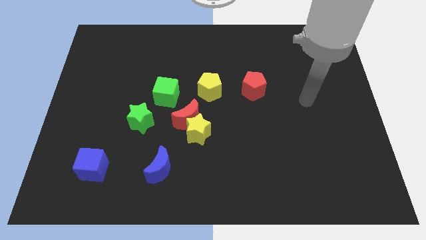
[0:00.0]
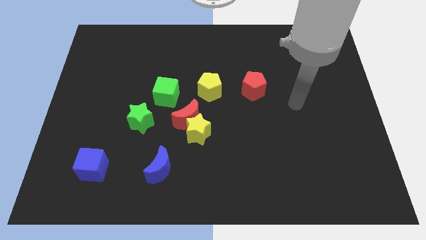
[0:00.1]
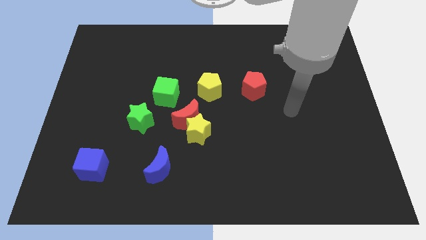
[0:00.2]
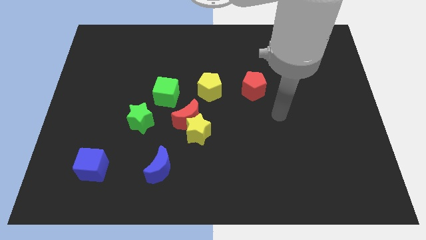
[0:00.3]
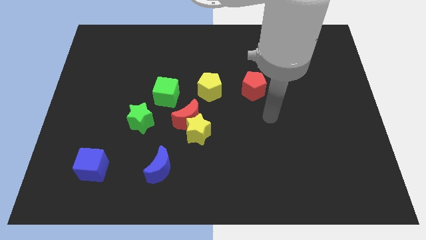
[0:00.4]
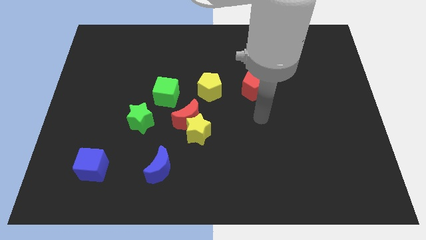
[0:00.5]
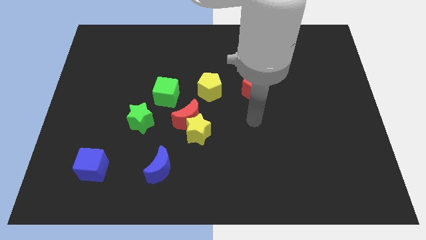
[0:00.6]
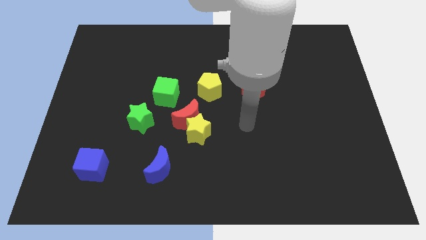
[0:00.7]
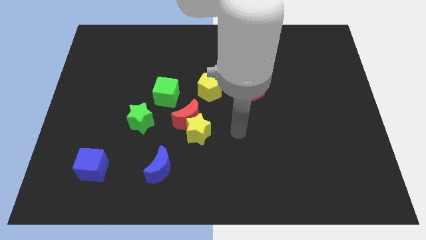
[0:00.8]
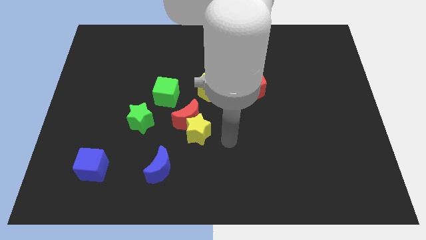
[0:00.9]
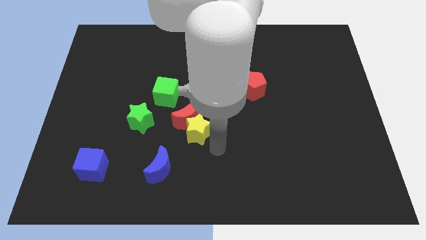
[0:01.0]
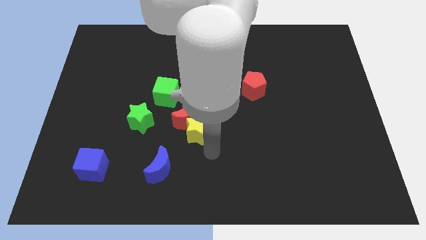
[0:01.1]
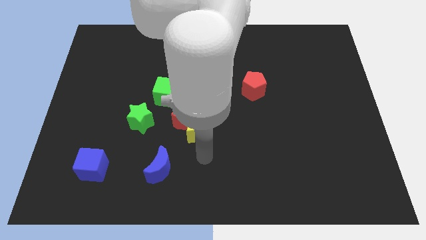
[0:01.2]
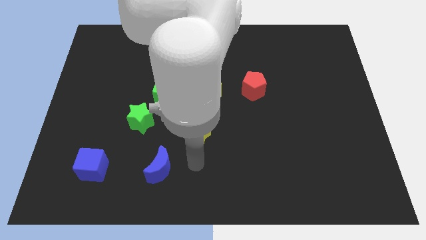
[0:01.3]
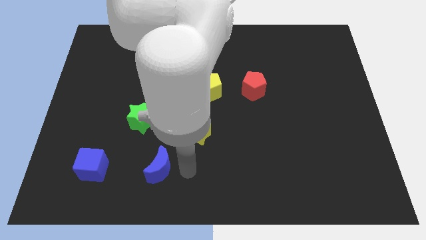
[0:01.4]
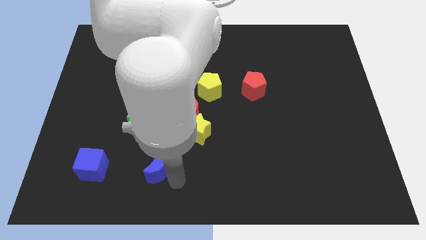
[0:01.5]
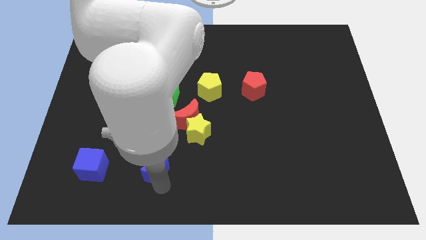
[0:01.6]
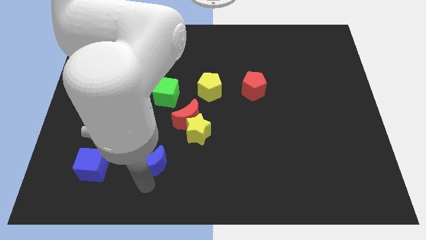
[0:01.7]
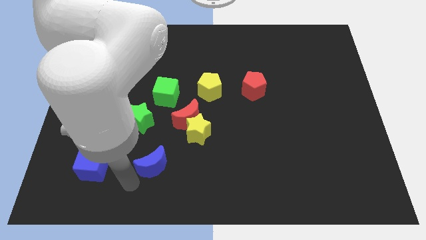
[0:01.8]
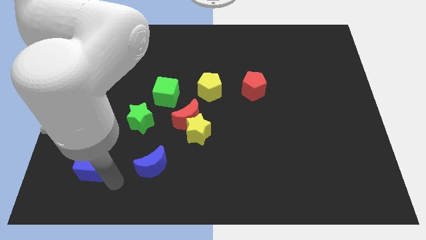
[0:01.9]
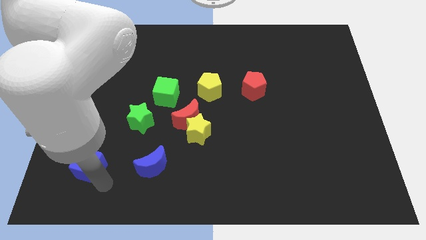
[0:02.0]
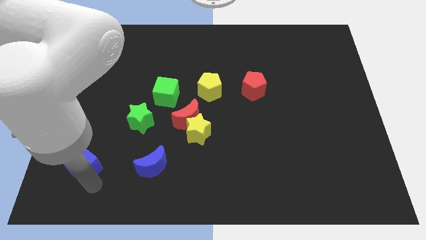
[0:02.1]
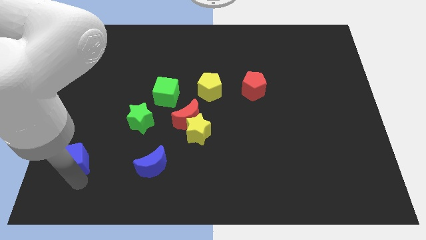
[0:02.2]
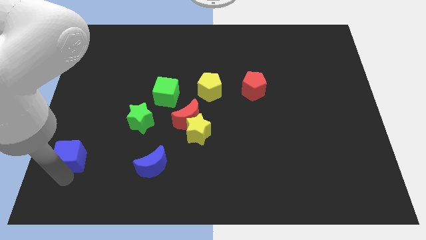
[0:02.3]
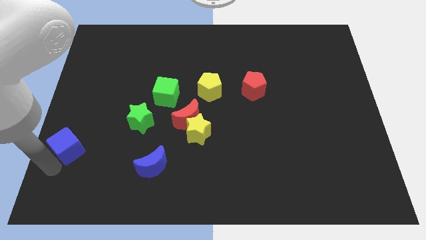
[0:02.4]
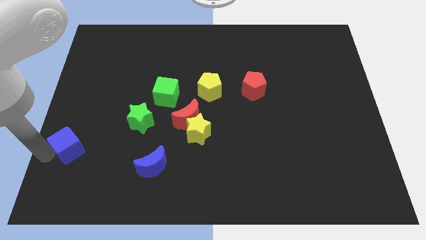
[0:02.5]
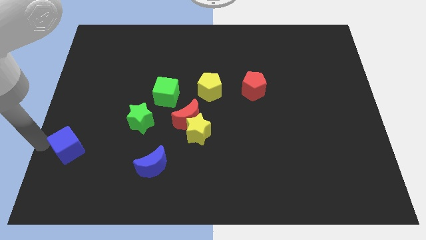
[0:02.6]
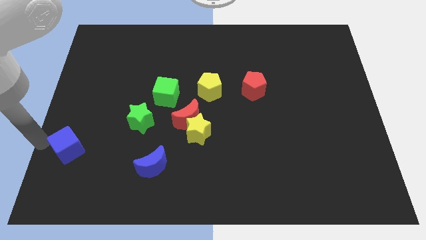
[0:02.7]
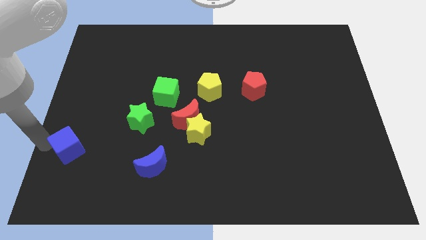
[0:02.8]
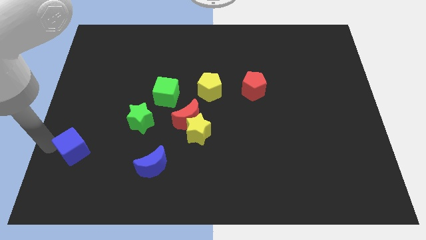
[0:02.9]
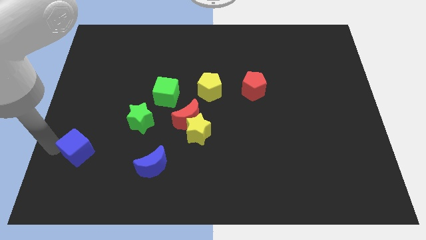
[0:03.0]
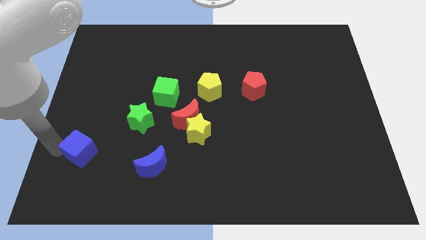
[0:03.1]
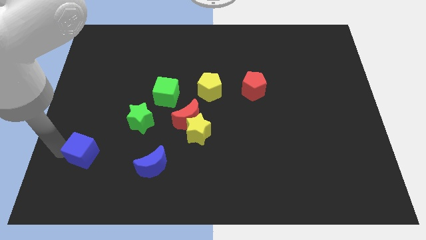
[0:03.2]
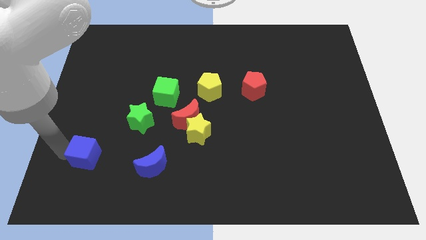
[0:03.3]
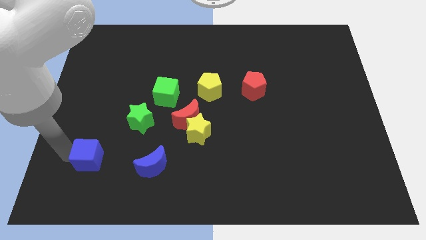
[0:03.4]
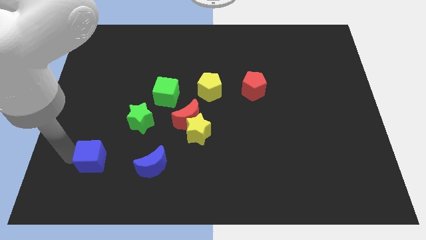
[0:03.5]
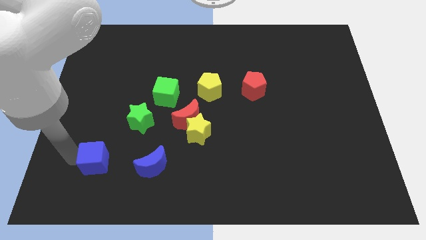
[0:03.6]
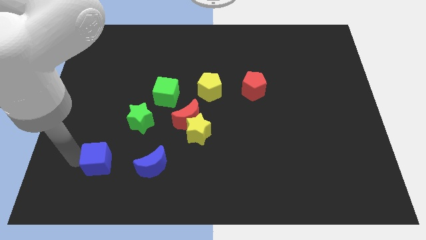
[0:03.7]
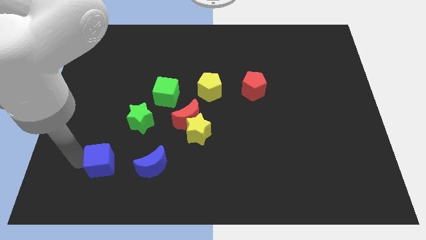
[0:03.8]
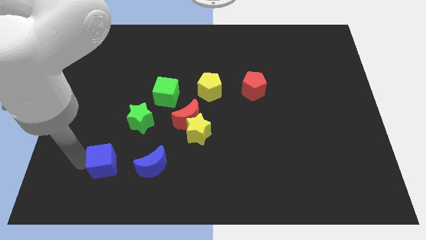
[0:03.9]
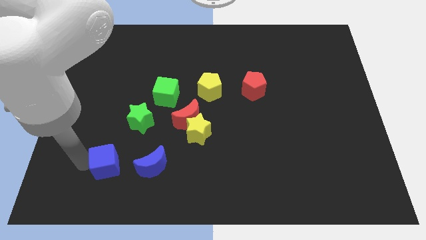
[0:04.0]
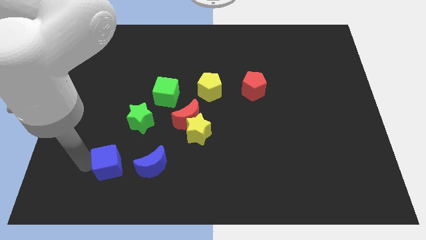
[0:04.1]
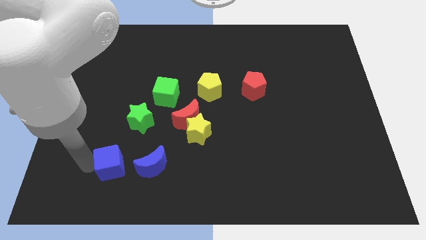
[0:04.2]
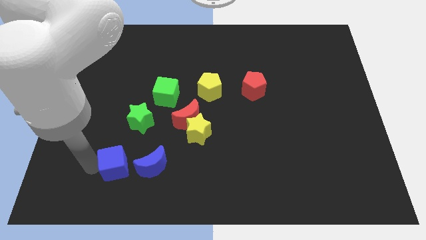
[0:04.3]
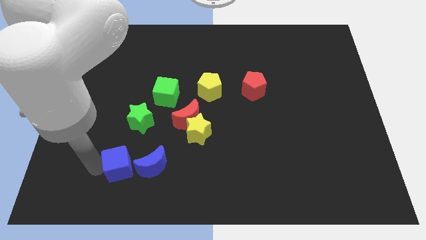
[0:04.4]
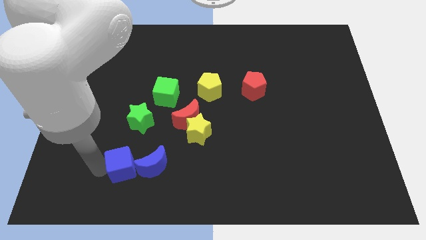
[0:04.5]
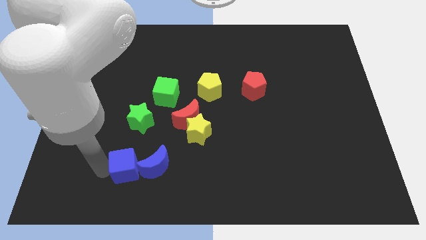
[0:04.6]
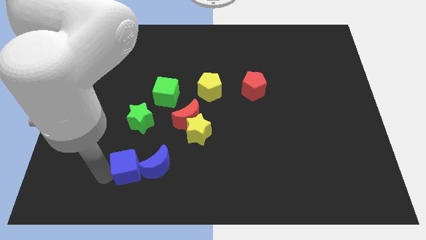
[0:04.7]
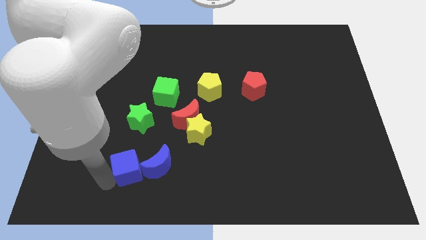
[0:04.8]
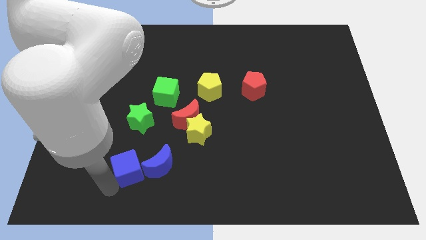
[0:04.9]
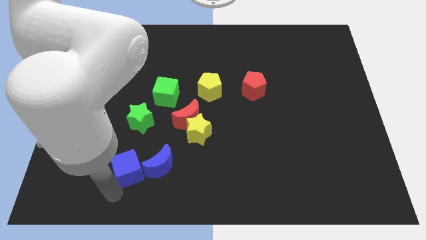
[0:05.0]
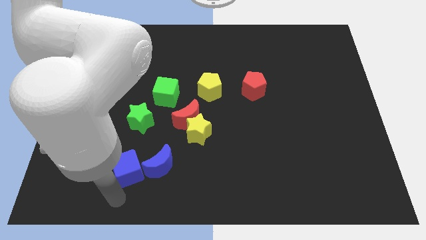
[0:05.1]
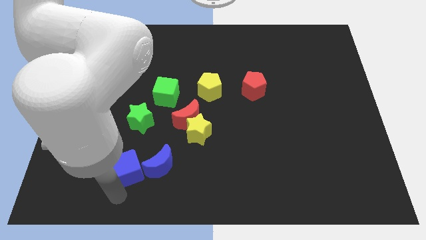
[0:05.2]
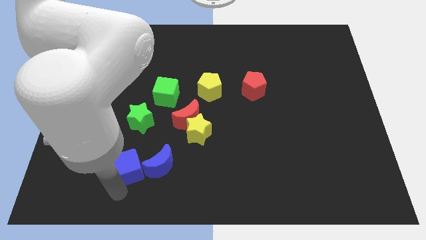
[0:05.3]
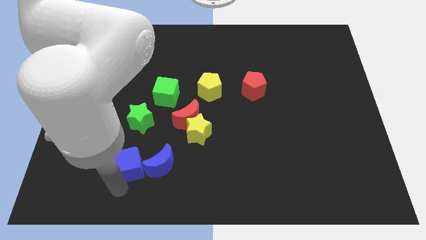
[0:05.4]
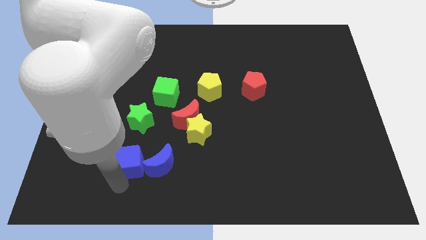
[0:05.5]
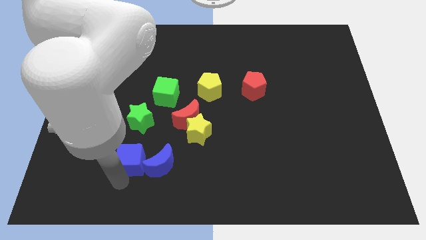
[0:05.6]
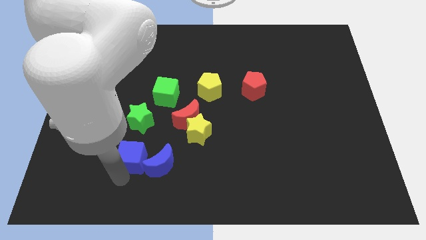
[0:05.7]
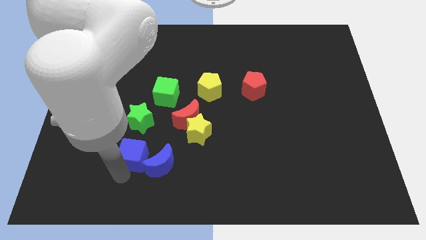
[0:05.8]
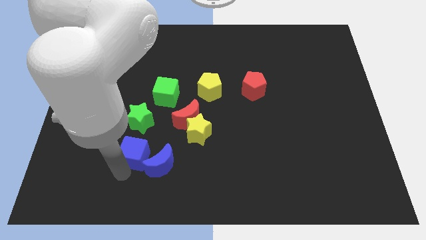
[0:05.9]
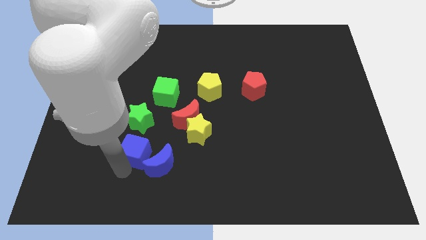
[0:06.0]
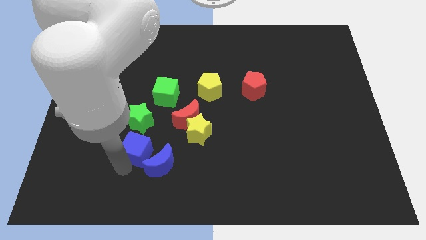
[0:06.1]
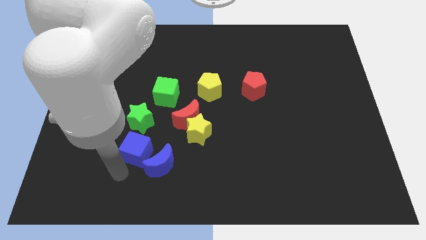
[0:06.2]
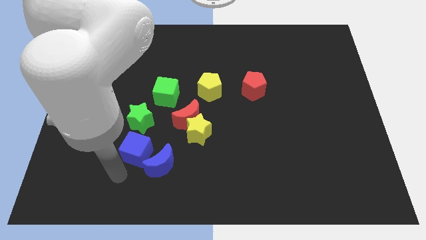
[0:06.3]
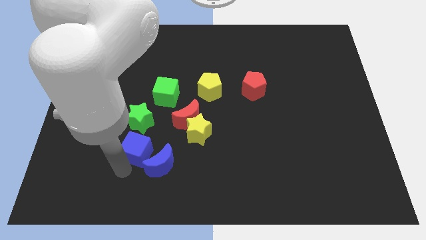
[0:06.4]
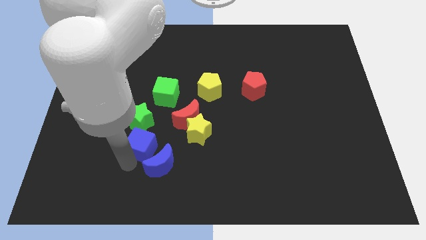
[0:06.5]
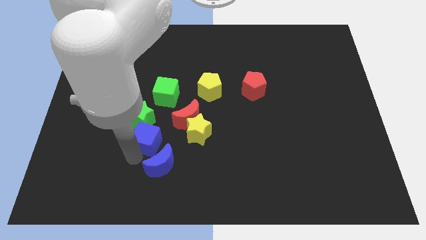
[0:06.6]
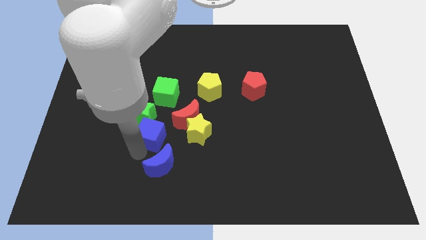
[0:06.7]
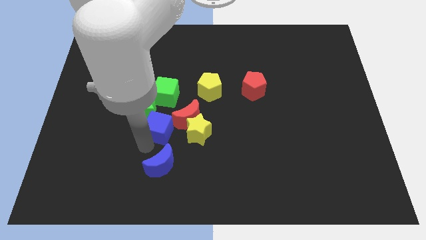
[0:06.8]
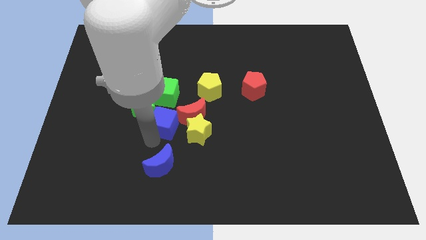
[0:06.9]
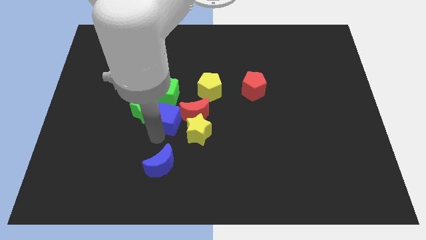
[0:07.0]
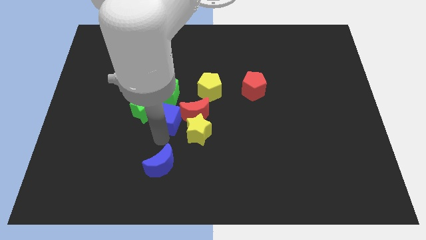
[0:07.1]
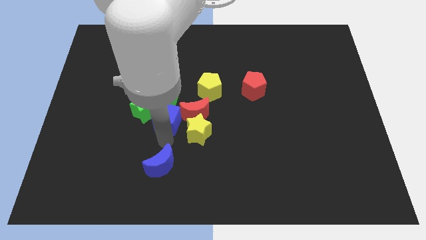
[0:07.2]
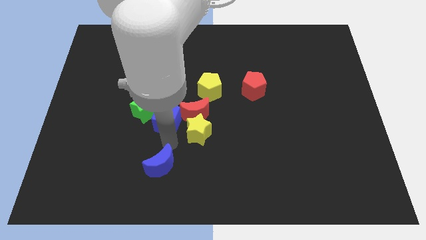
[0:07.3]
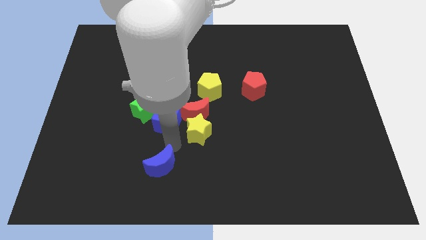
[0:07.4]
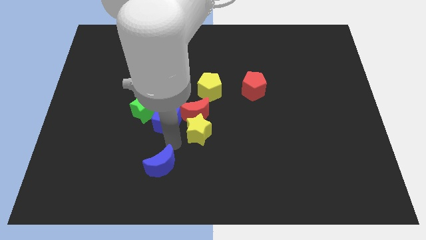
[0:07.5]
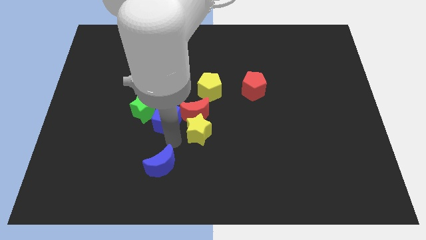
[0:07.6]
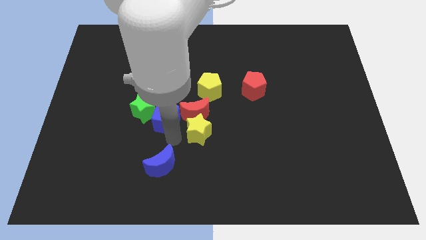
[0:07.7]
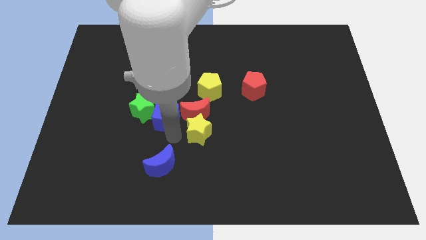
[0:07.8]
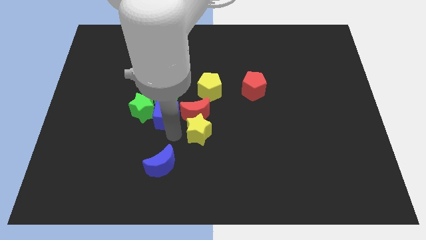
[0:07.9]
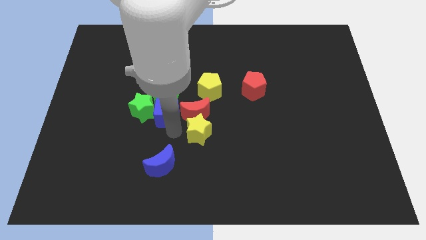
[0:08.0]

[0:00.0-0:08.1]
move the blue cube close to the green cube
